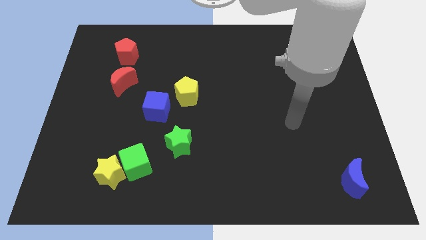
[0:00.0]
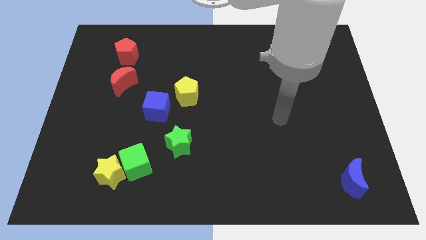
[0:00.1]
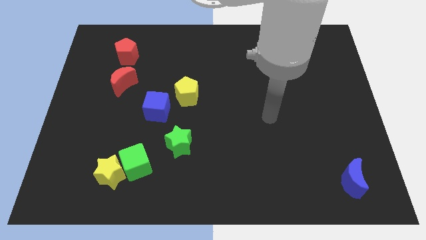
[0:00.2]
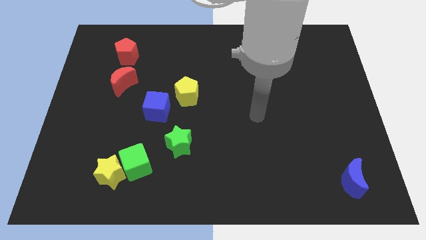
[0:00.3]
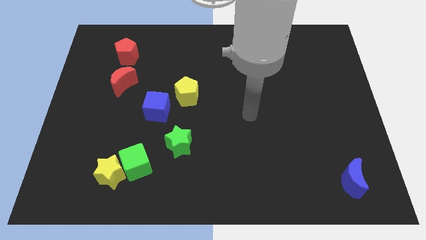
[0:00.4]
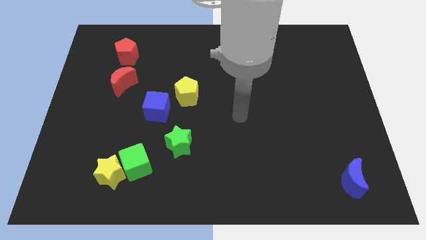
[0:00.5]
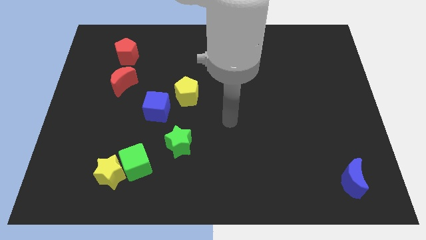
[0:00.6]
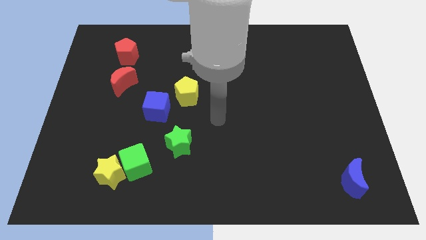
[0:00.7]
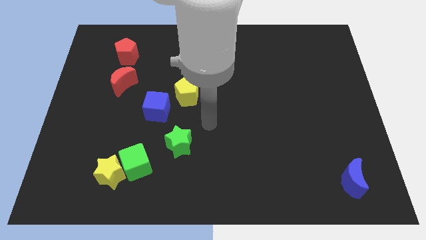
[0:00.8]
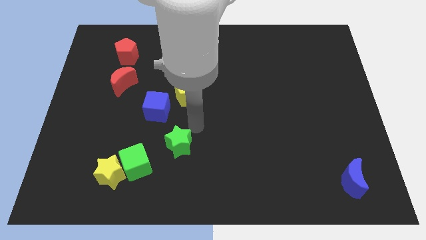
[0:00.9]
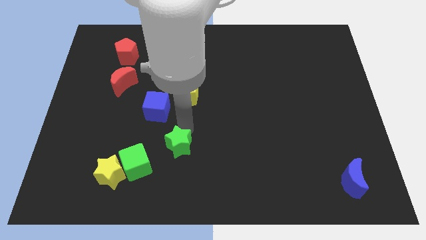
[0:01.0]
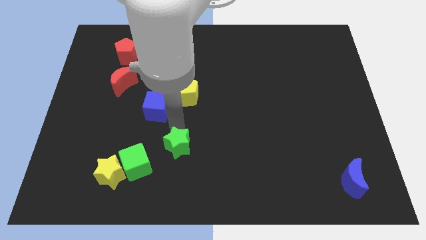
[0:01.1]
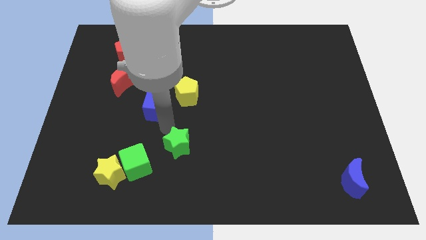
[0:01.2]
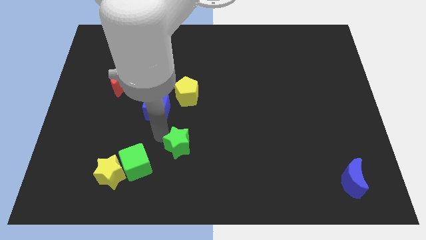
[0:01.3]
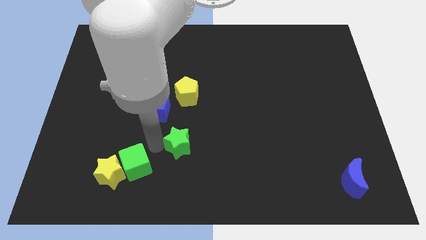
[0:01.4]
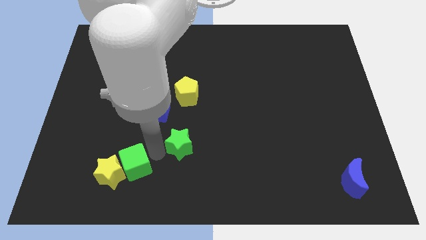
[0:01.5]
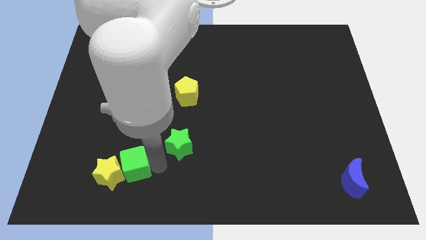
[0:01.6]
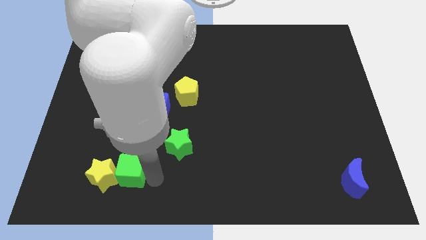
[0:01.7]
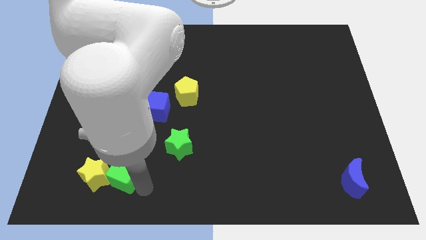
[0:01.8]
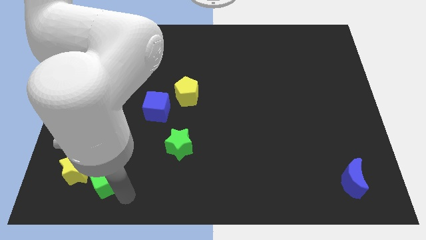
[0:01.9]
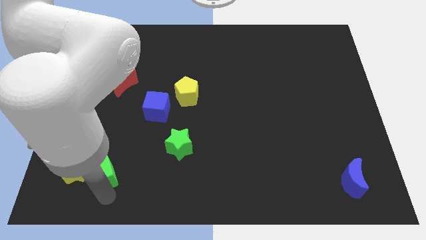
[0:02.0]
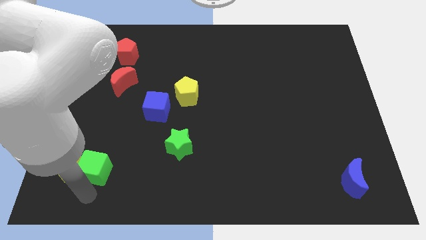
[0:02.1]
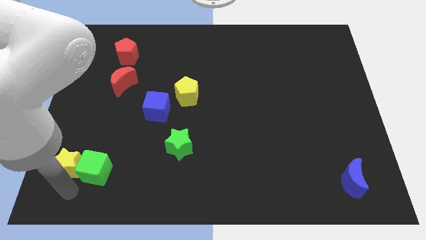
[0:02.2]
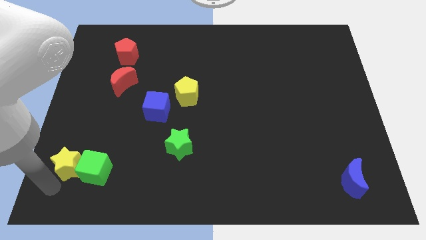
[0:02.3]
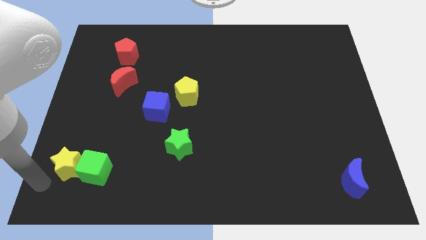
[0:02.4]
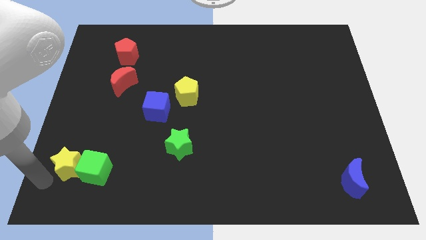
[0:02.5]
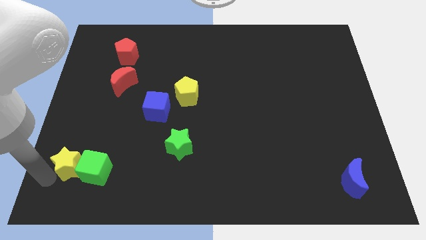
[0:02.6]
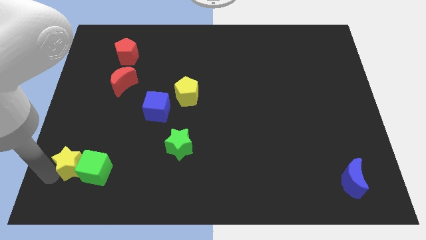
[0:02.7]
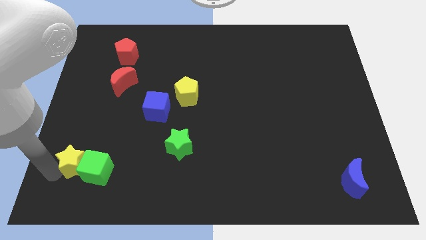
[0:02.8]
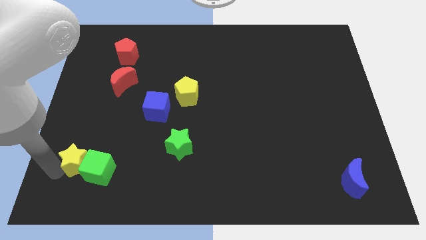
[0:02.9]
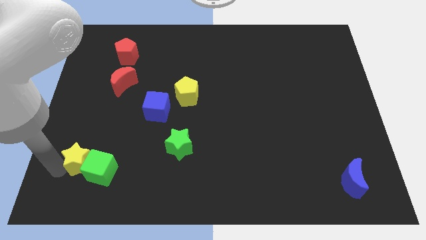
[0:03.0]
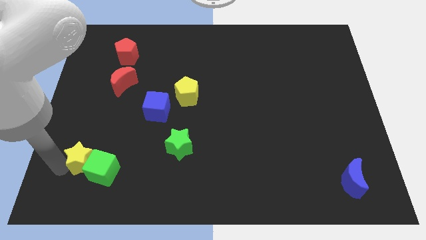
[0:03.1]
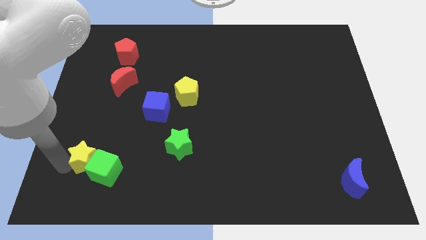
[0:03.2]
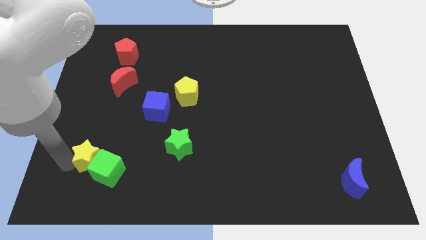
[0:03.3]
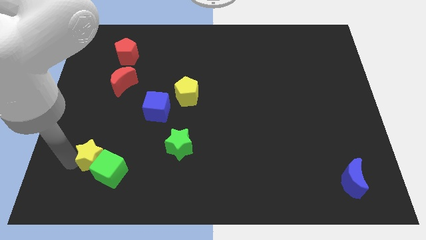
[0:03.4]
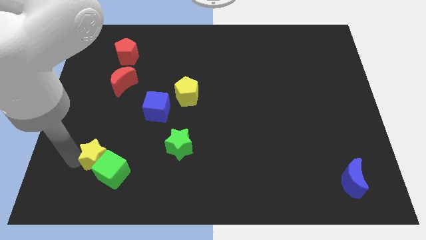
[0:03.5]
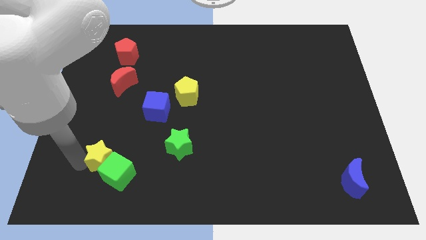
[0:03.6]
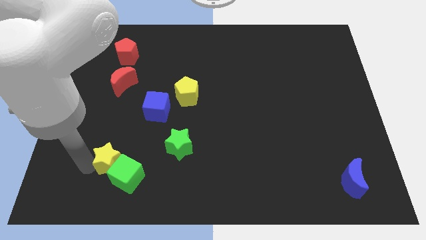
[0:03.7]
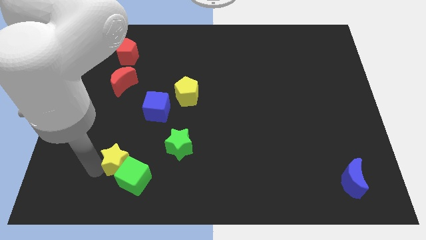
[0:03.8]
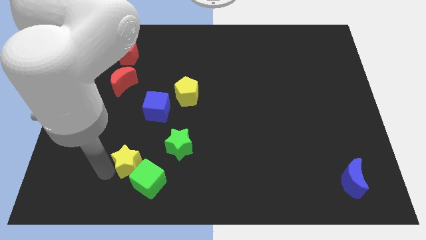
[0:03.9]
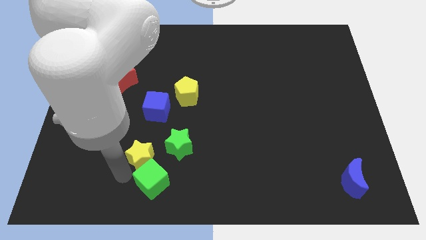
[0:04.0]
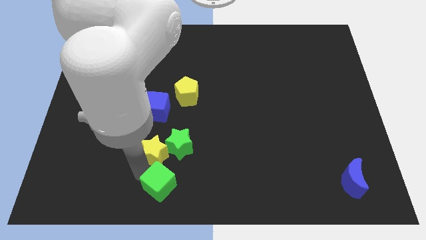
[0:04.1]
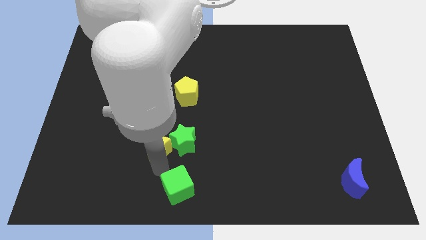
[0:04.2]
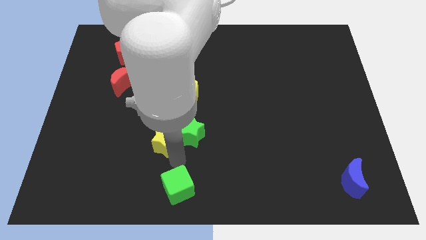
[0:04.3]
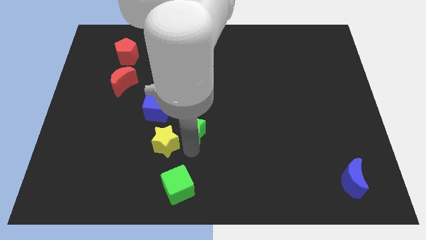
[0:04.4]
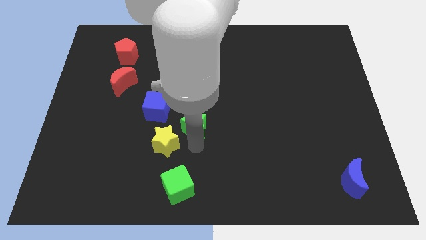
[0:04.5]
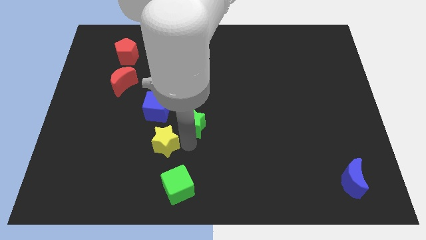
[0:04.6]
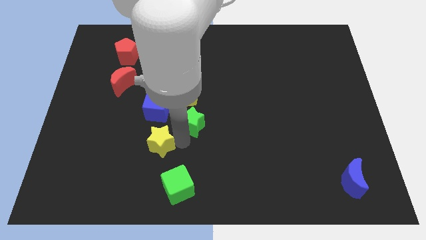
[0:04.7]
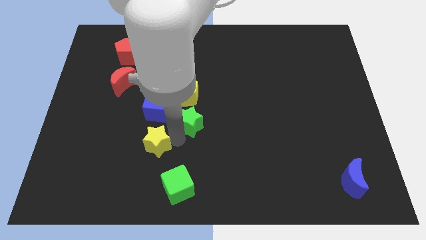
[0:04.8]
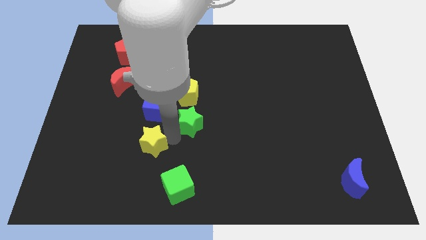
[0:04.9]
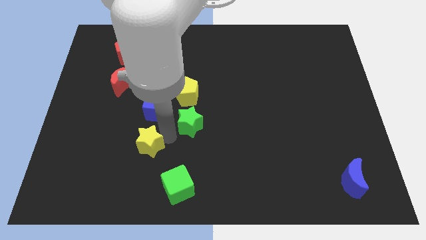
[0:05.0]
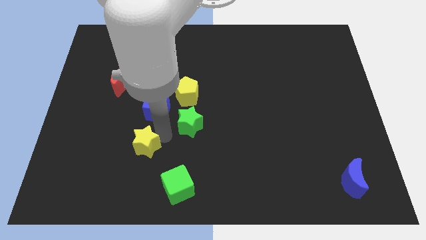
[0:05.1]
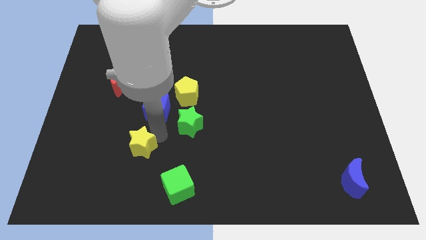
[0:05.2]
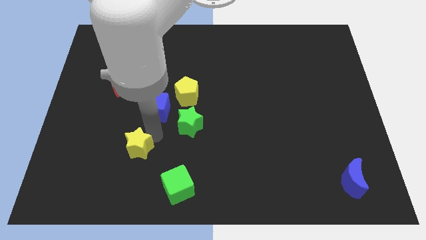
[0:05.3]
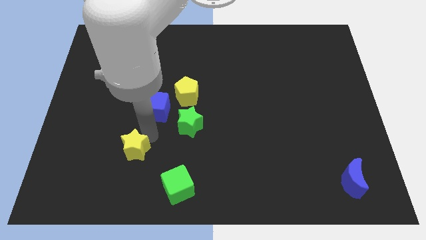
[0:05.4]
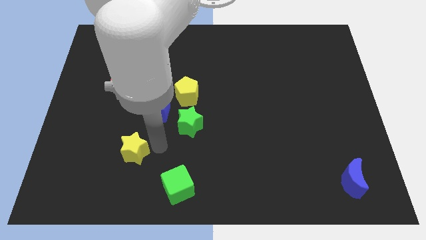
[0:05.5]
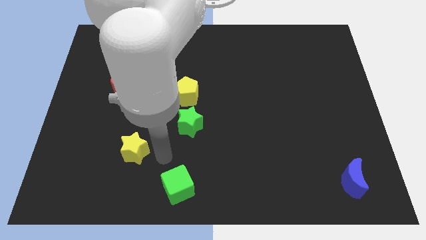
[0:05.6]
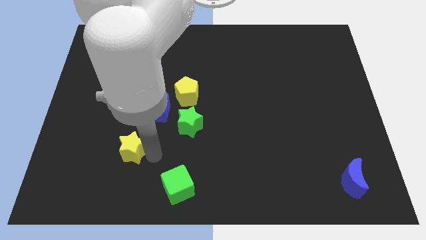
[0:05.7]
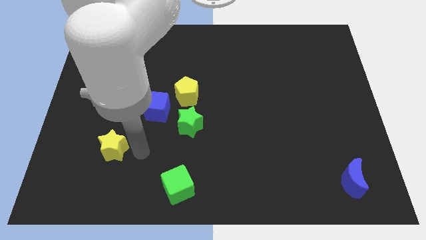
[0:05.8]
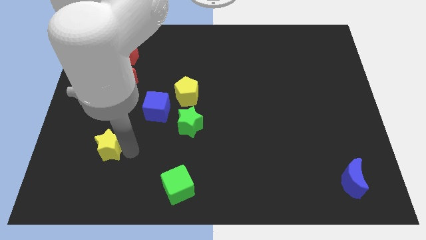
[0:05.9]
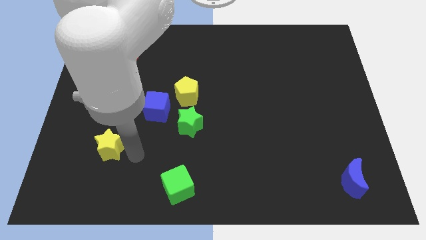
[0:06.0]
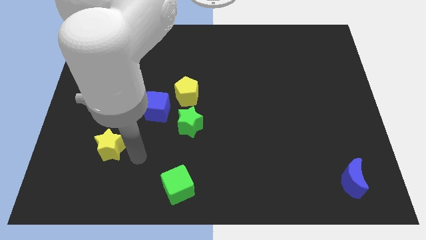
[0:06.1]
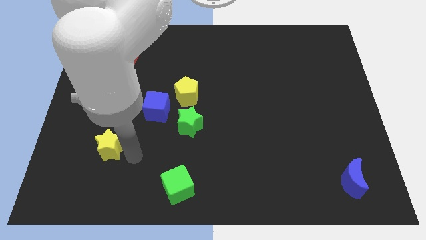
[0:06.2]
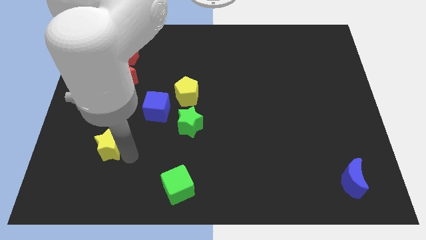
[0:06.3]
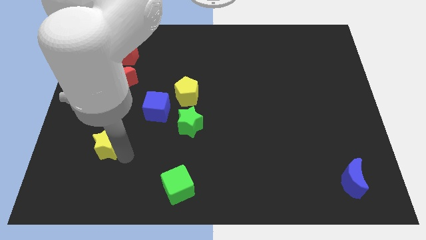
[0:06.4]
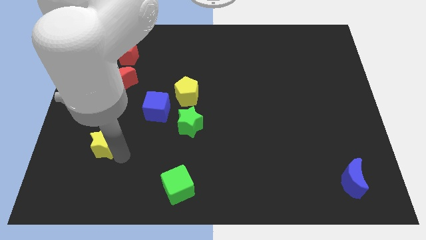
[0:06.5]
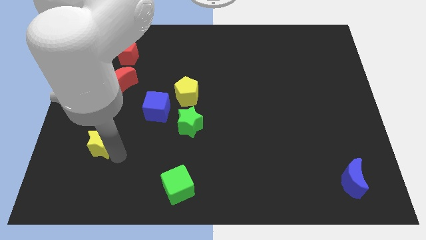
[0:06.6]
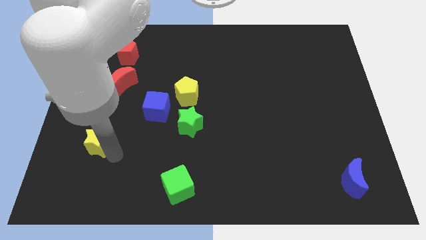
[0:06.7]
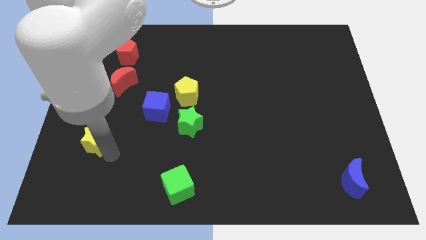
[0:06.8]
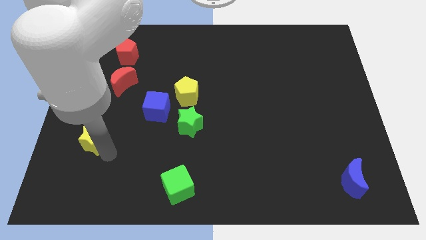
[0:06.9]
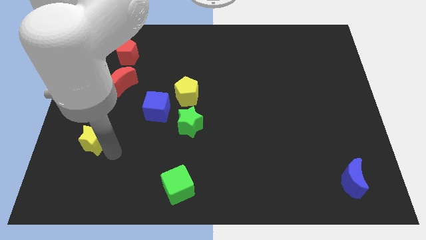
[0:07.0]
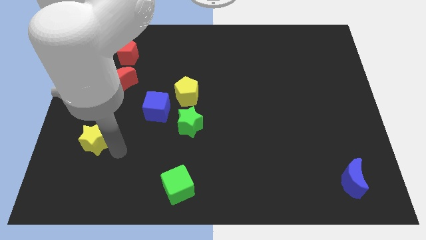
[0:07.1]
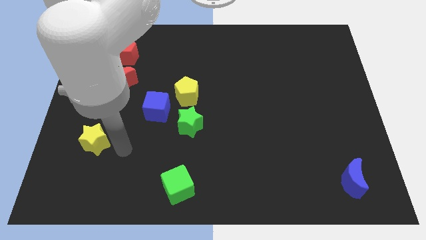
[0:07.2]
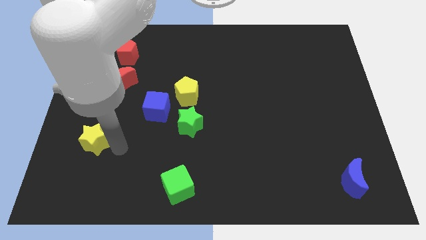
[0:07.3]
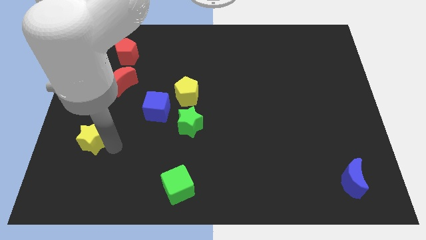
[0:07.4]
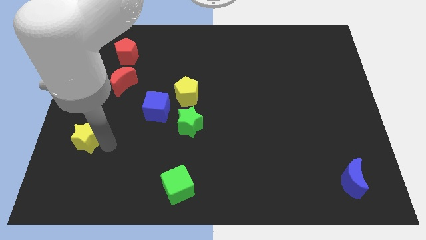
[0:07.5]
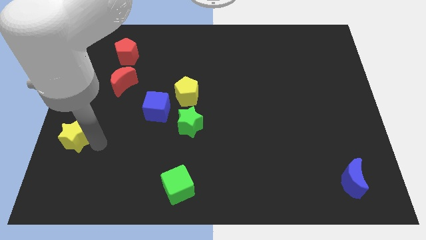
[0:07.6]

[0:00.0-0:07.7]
slide the yellow star to the left side
